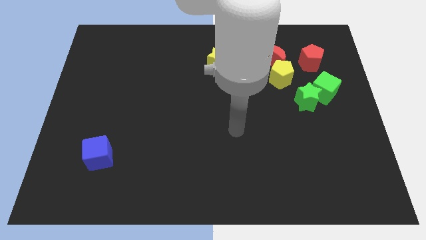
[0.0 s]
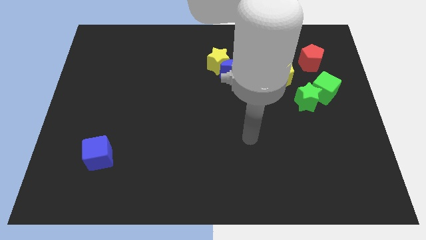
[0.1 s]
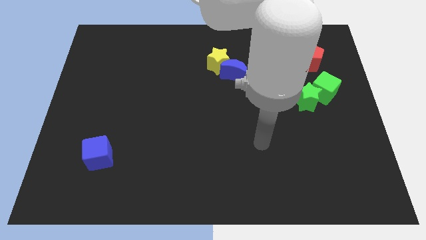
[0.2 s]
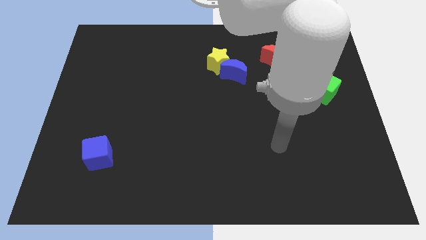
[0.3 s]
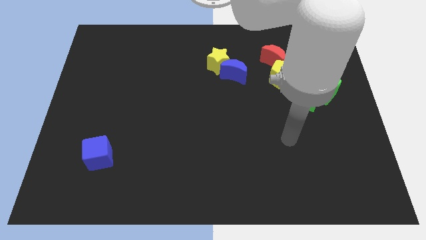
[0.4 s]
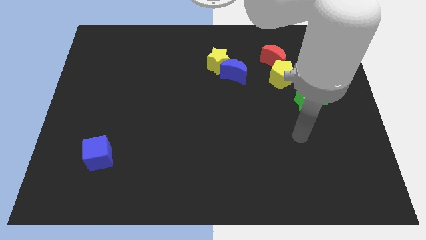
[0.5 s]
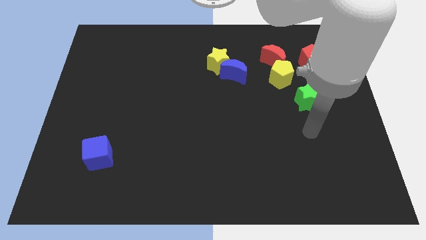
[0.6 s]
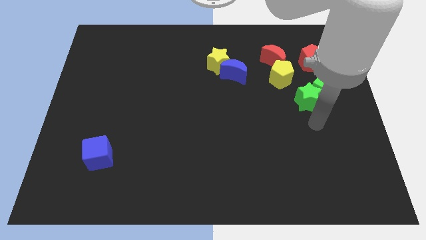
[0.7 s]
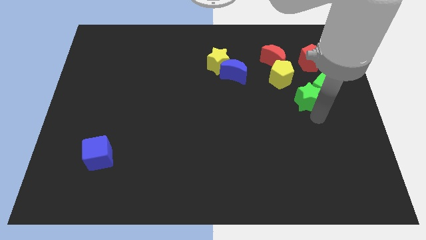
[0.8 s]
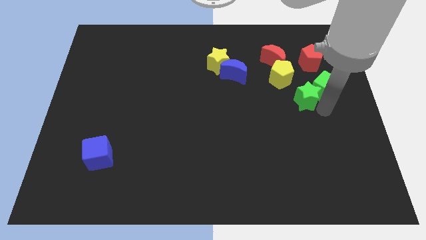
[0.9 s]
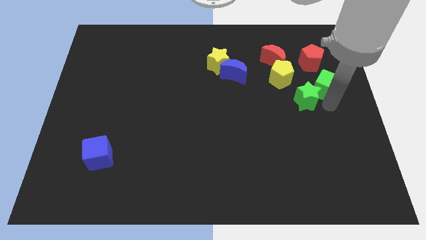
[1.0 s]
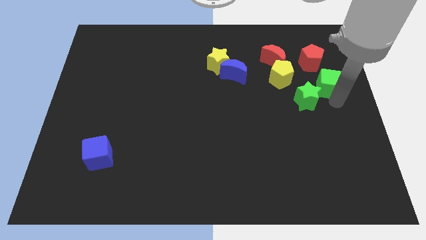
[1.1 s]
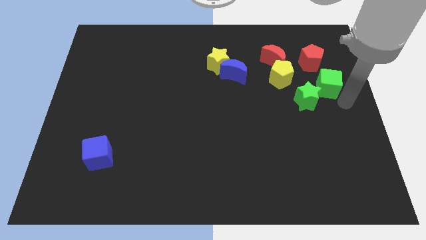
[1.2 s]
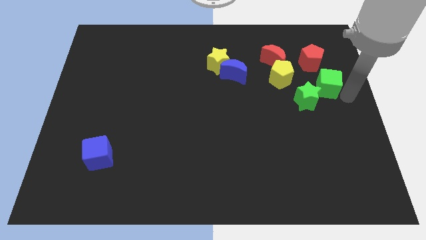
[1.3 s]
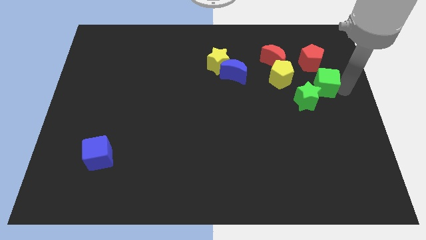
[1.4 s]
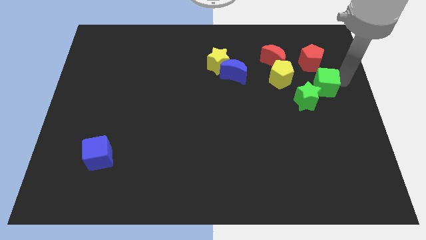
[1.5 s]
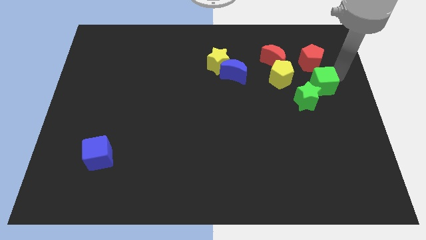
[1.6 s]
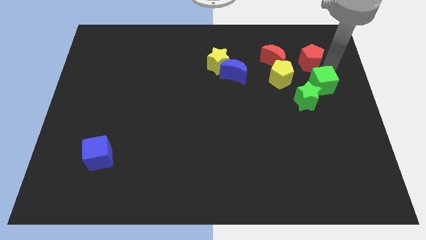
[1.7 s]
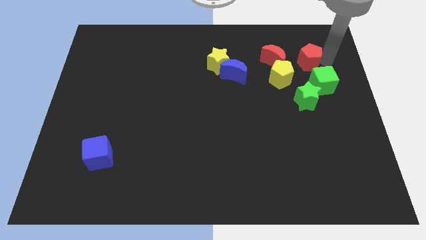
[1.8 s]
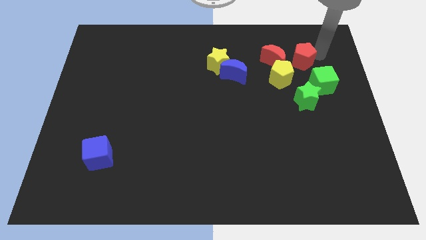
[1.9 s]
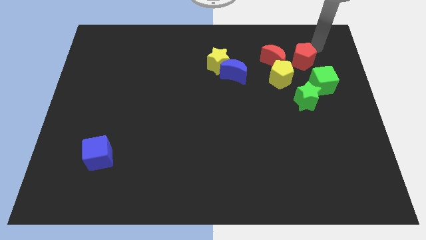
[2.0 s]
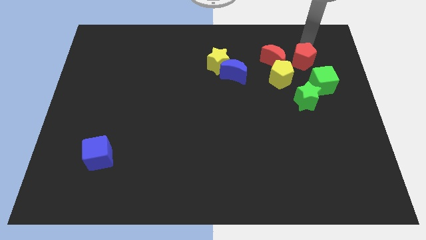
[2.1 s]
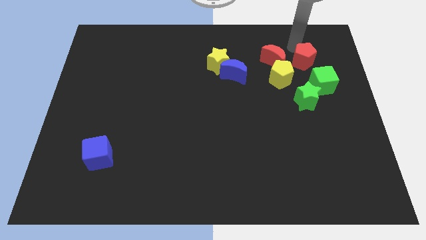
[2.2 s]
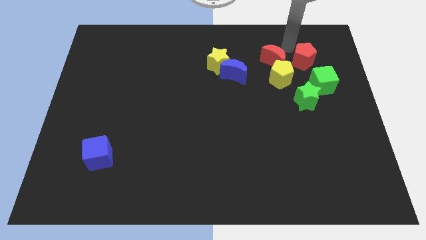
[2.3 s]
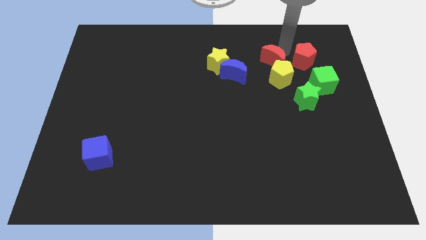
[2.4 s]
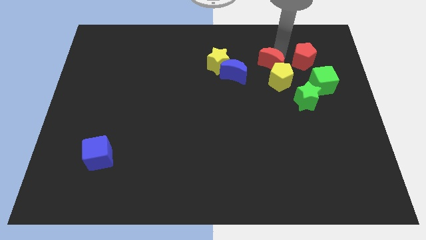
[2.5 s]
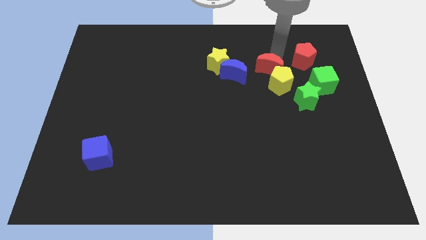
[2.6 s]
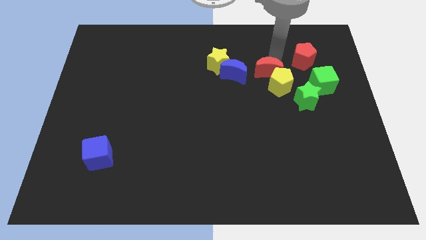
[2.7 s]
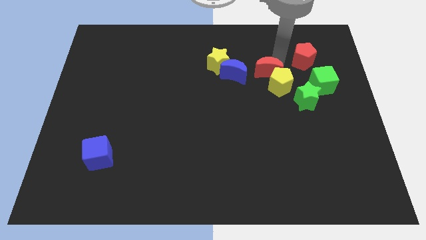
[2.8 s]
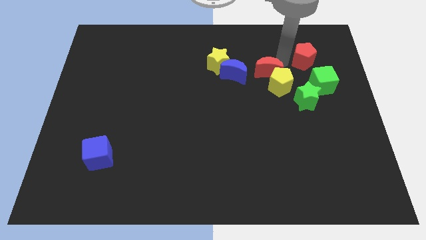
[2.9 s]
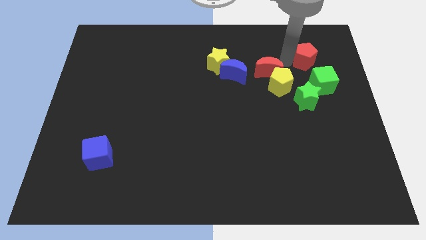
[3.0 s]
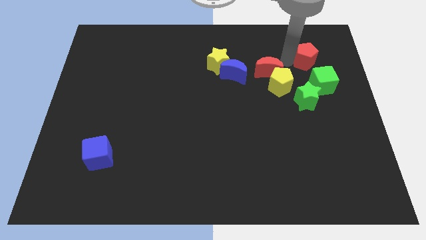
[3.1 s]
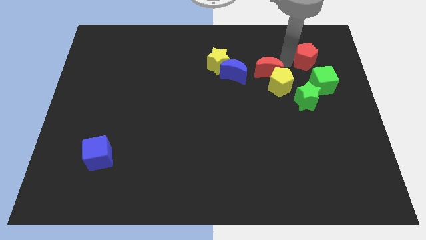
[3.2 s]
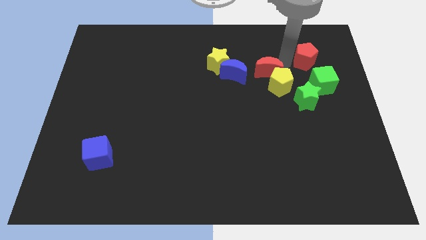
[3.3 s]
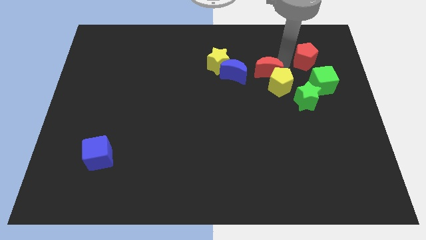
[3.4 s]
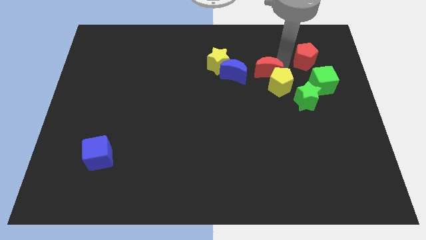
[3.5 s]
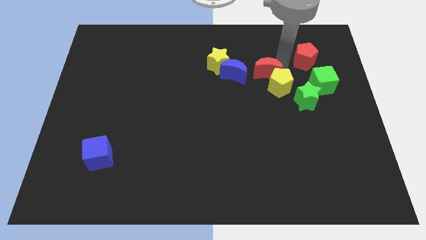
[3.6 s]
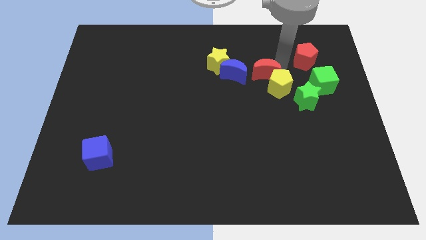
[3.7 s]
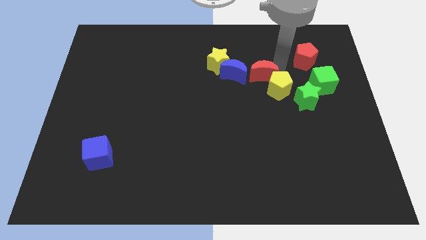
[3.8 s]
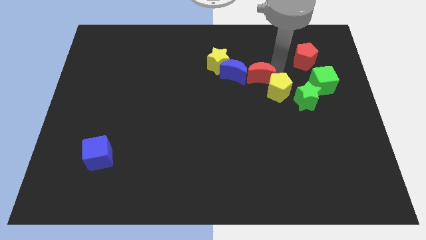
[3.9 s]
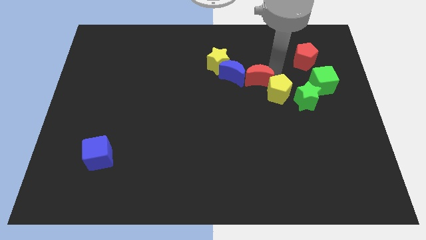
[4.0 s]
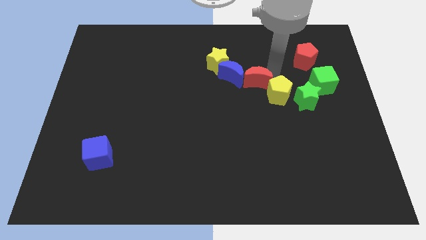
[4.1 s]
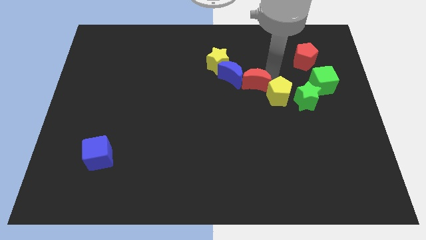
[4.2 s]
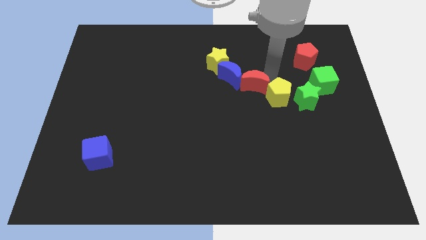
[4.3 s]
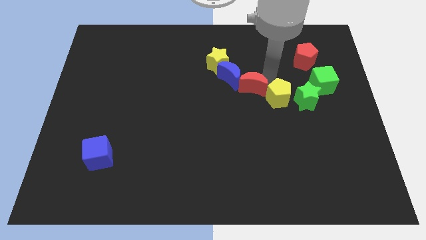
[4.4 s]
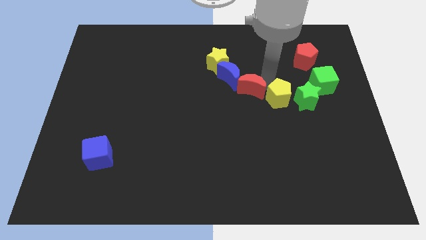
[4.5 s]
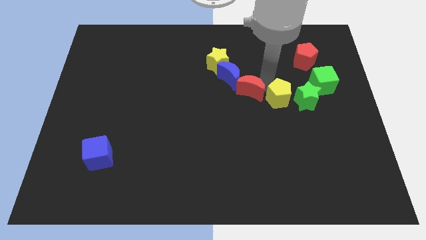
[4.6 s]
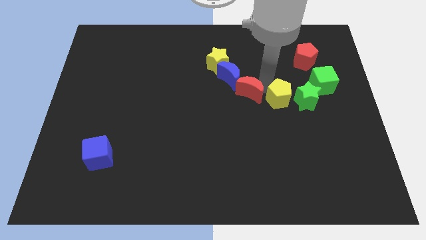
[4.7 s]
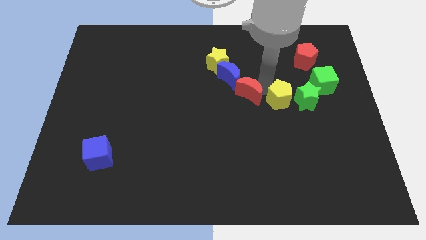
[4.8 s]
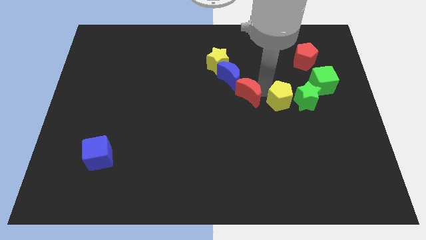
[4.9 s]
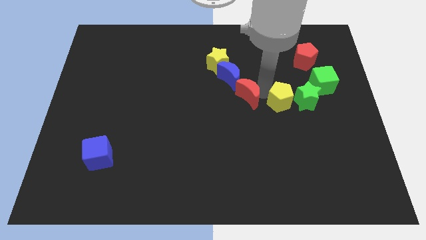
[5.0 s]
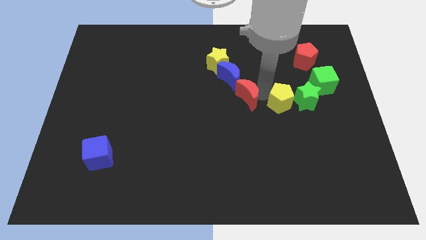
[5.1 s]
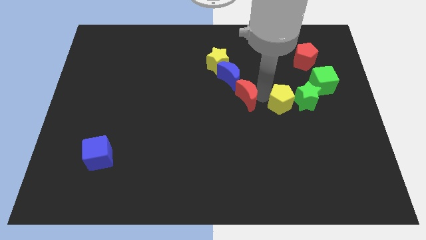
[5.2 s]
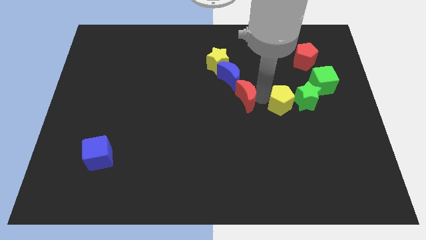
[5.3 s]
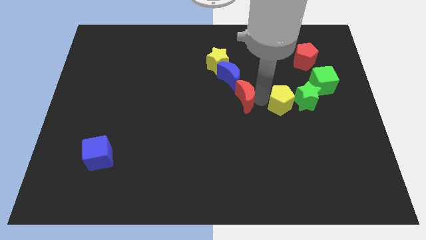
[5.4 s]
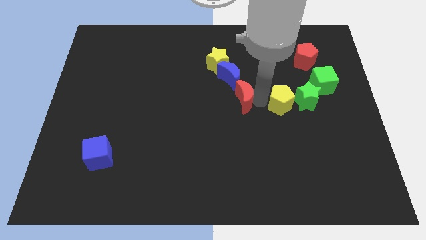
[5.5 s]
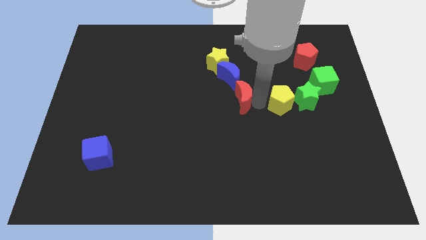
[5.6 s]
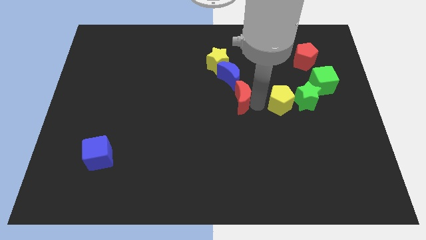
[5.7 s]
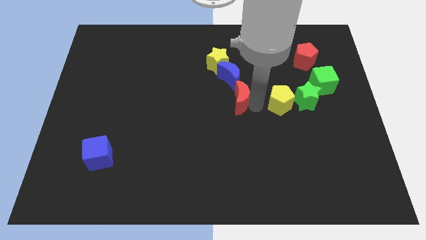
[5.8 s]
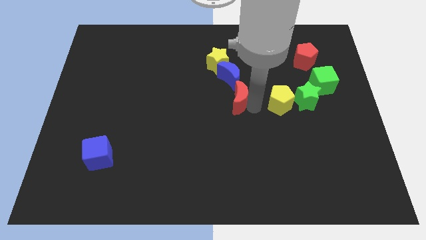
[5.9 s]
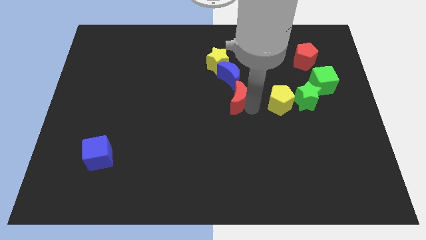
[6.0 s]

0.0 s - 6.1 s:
push the red moon below the yellow star

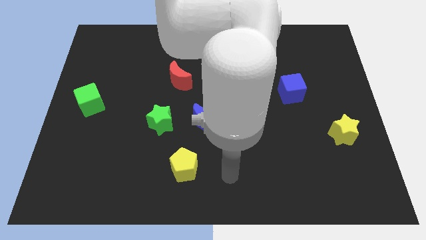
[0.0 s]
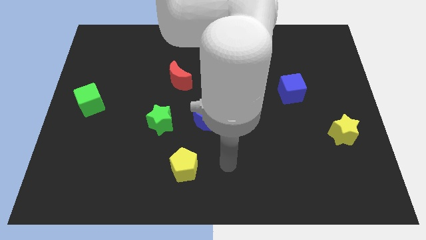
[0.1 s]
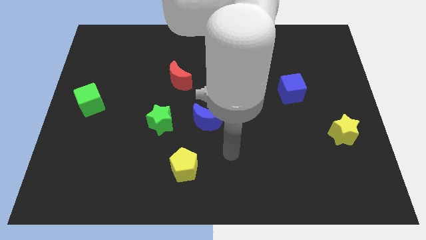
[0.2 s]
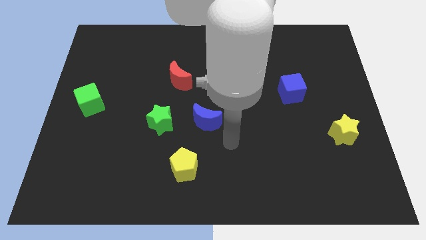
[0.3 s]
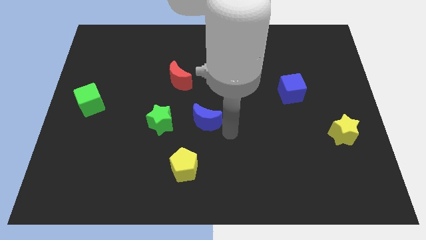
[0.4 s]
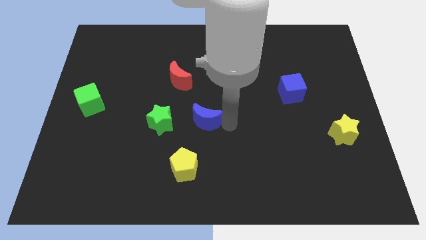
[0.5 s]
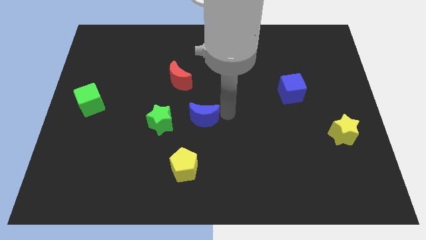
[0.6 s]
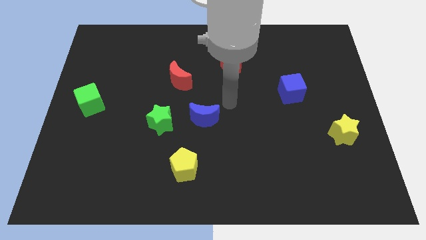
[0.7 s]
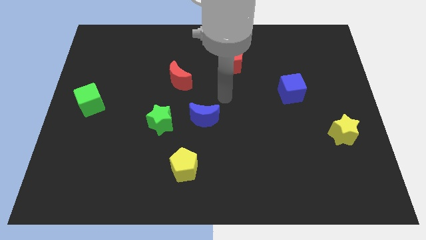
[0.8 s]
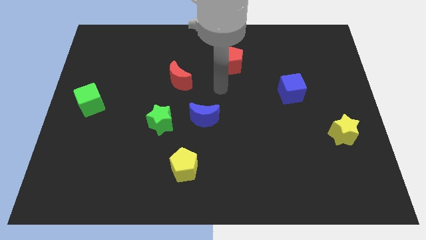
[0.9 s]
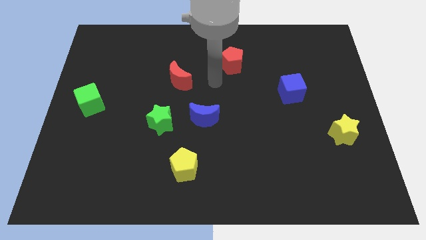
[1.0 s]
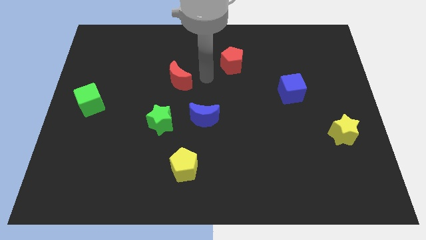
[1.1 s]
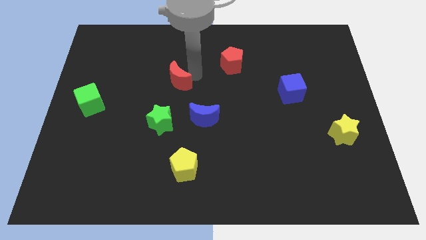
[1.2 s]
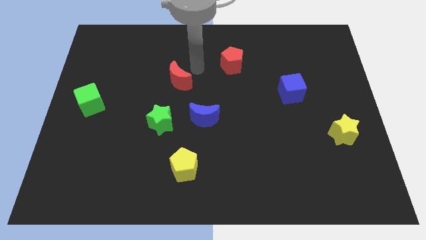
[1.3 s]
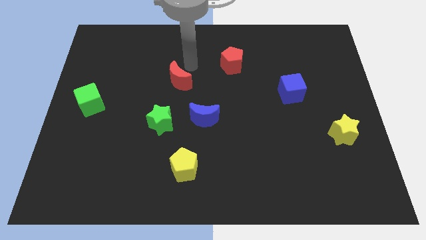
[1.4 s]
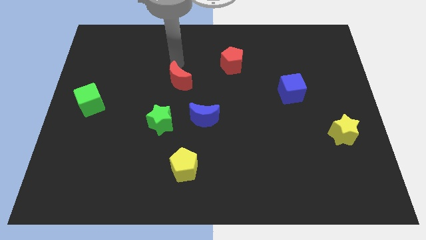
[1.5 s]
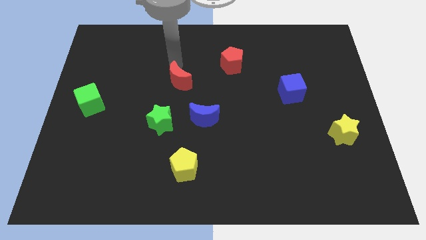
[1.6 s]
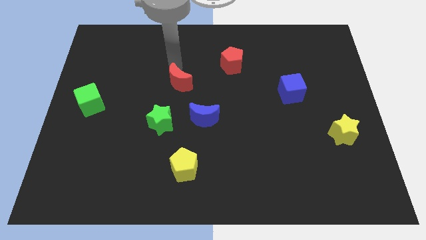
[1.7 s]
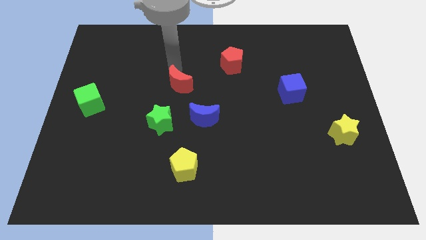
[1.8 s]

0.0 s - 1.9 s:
move the red moon to the top left of the blue moon

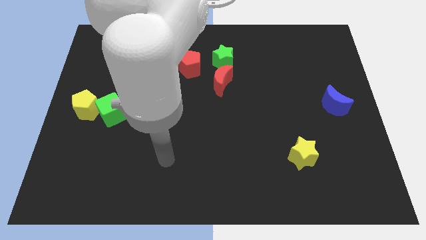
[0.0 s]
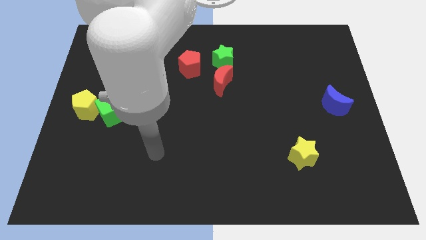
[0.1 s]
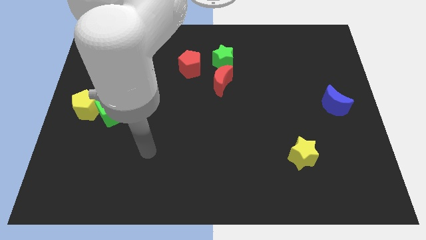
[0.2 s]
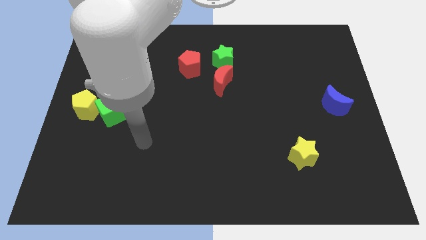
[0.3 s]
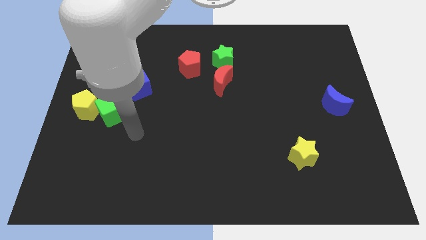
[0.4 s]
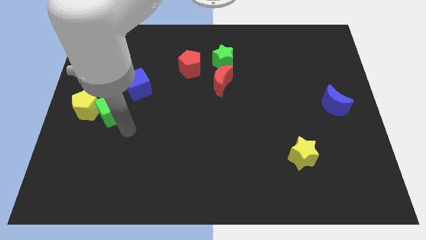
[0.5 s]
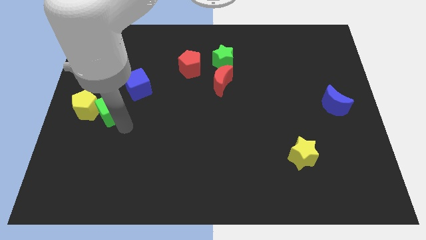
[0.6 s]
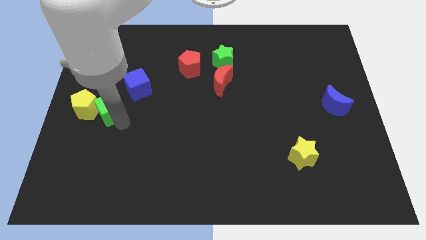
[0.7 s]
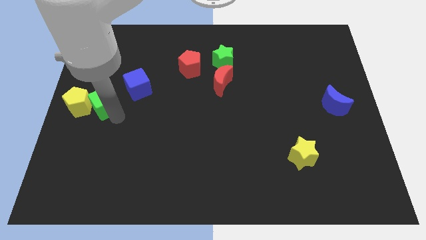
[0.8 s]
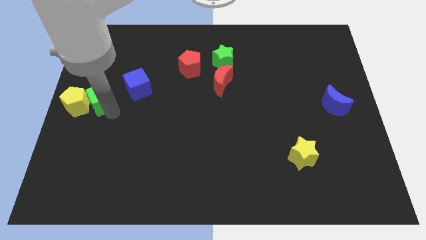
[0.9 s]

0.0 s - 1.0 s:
push the green cube to the left side of the blue cube
